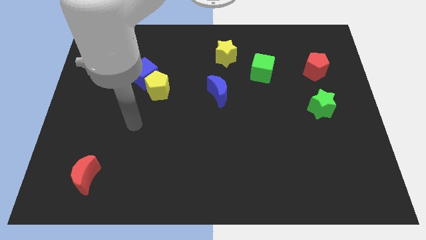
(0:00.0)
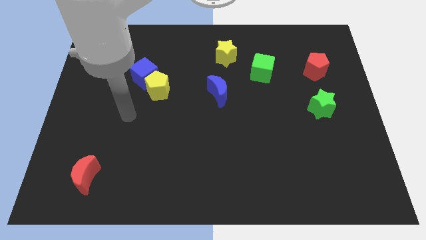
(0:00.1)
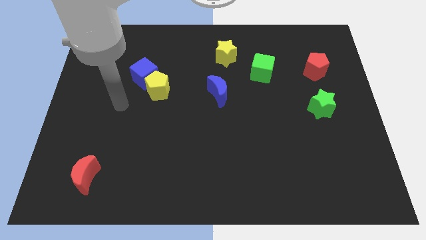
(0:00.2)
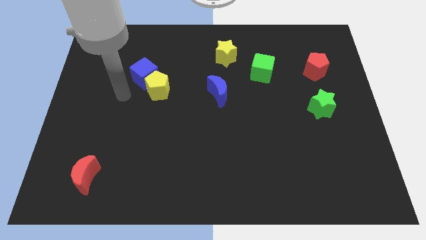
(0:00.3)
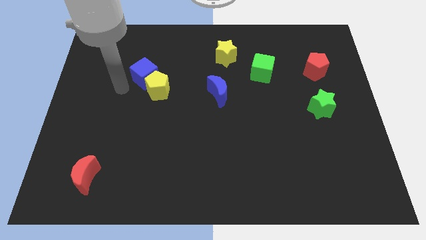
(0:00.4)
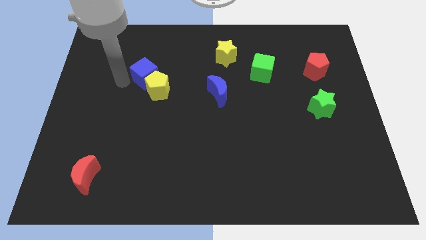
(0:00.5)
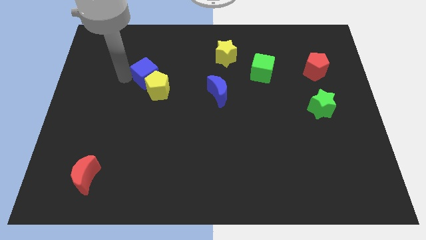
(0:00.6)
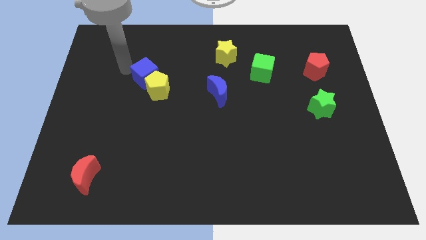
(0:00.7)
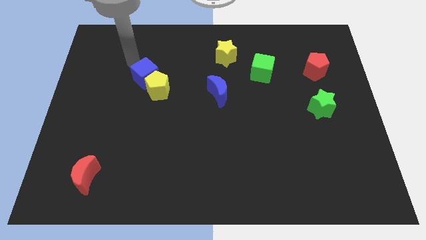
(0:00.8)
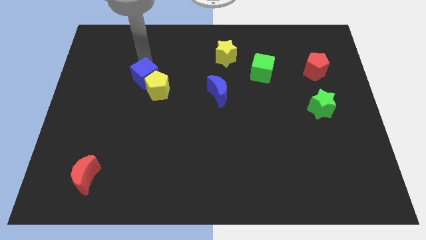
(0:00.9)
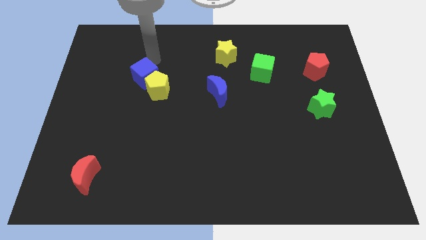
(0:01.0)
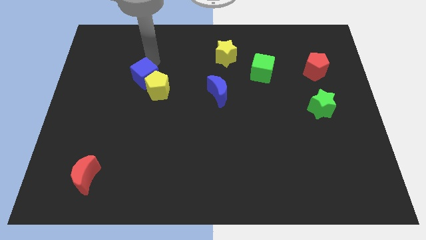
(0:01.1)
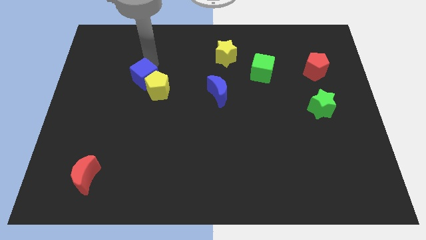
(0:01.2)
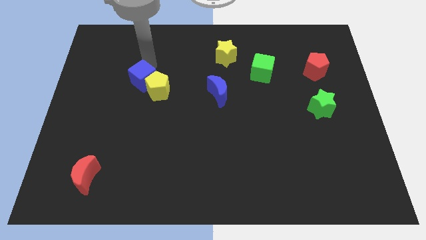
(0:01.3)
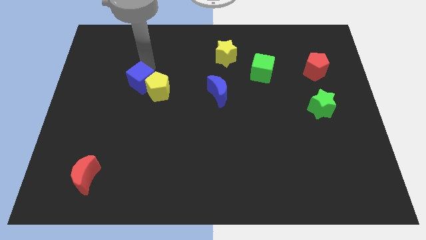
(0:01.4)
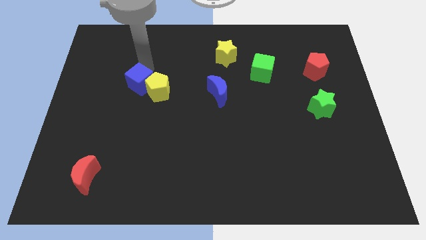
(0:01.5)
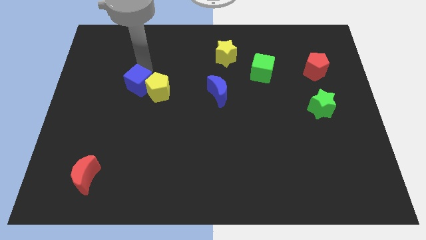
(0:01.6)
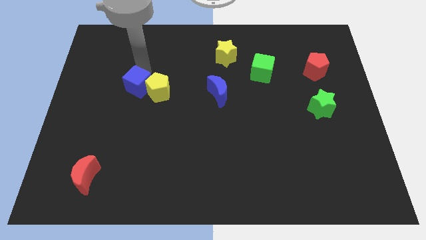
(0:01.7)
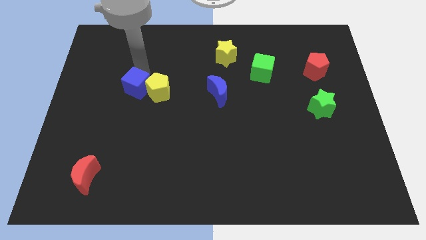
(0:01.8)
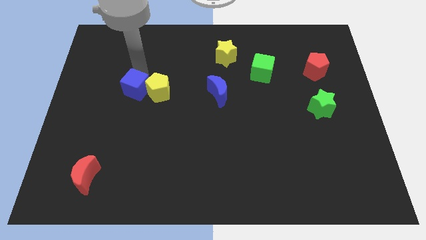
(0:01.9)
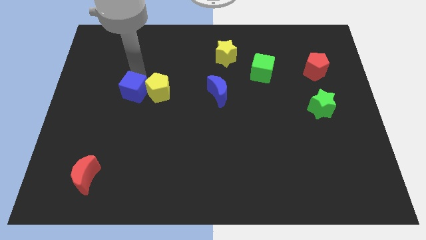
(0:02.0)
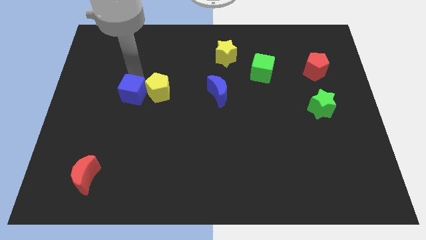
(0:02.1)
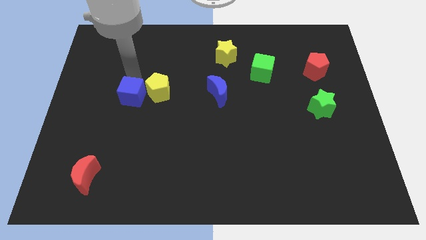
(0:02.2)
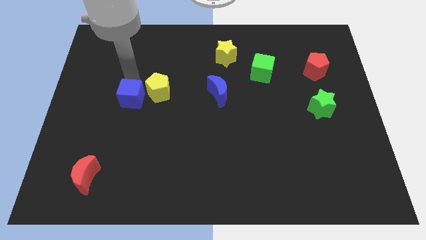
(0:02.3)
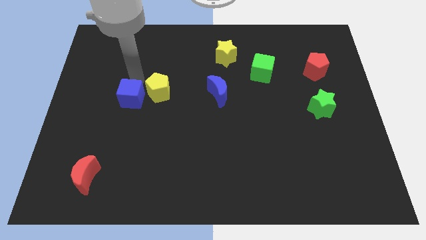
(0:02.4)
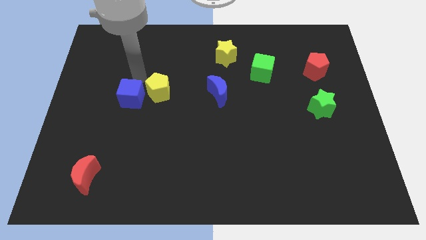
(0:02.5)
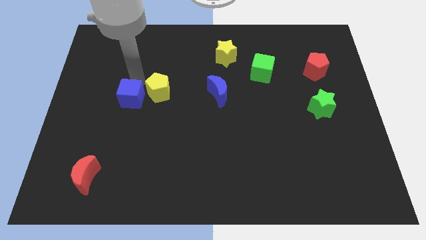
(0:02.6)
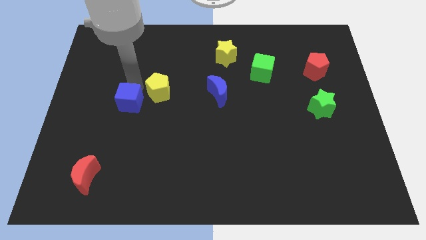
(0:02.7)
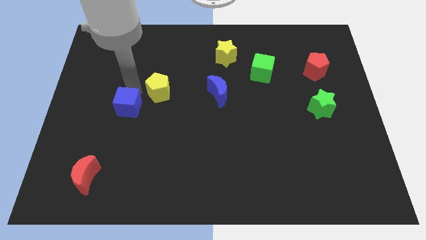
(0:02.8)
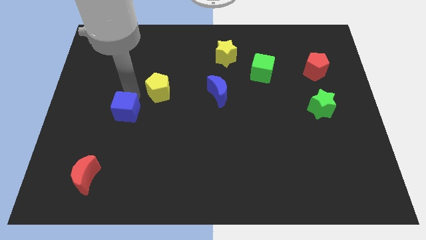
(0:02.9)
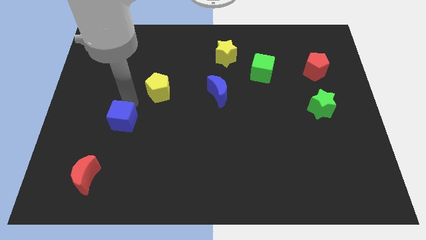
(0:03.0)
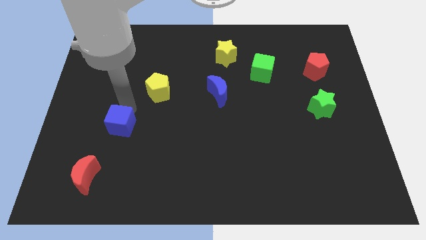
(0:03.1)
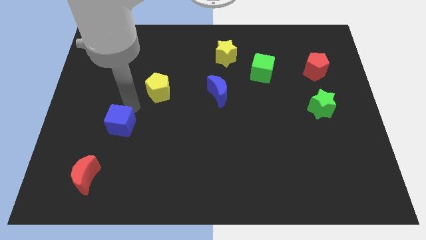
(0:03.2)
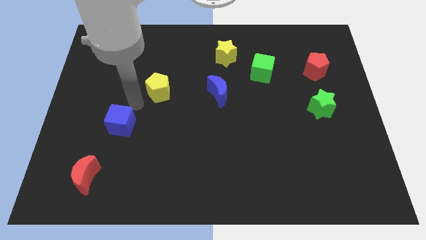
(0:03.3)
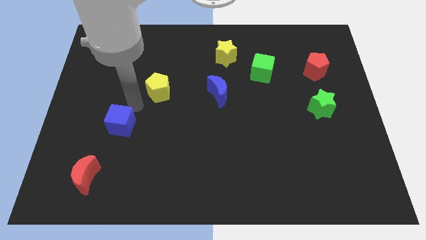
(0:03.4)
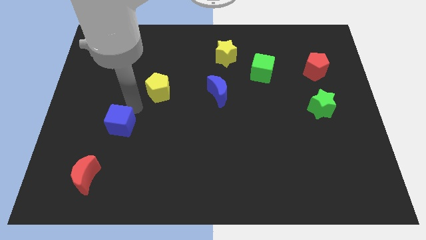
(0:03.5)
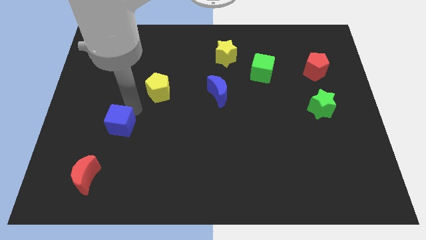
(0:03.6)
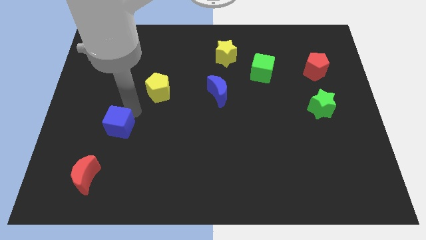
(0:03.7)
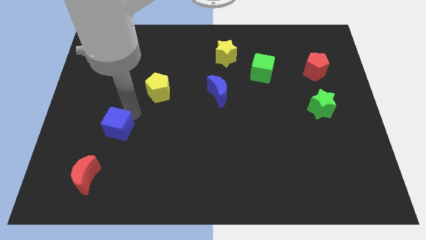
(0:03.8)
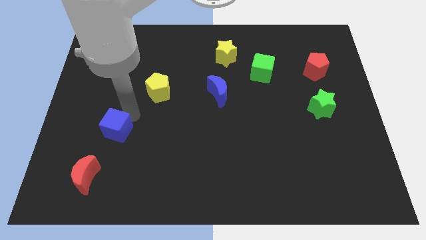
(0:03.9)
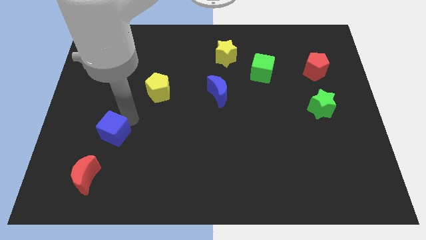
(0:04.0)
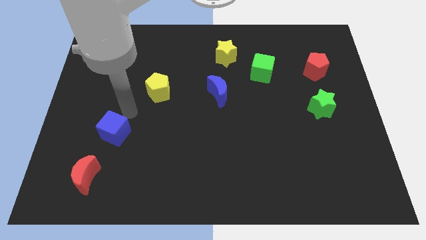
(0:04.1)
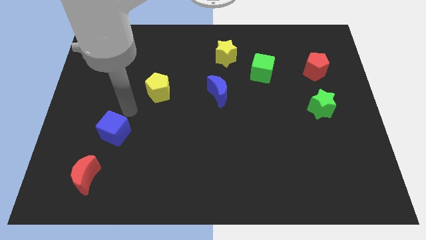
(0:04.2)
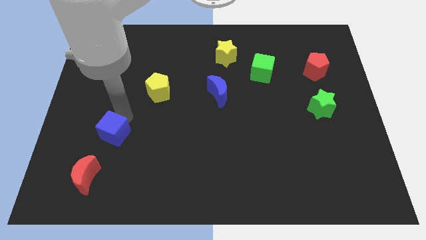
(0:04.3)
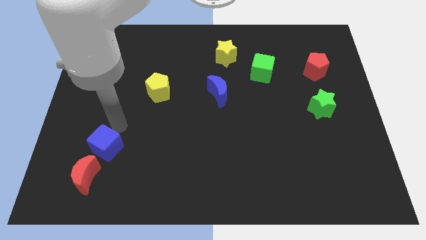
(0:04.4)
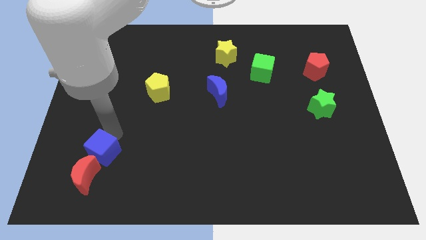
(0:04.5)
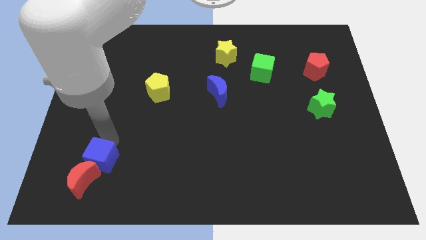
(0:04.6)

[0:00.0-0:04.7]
slide the blue cube to the red moon

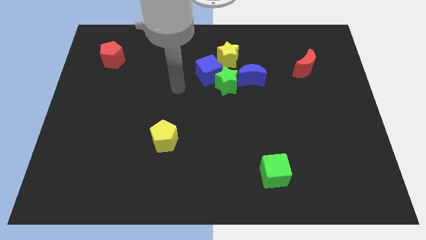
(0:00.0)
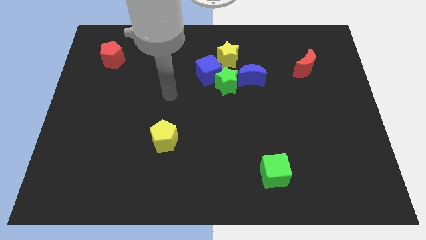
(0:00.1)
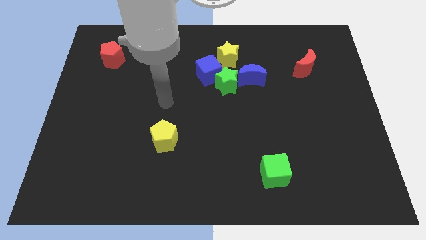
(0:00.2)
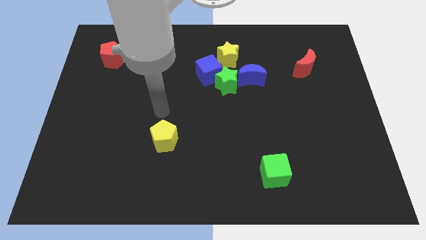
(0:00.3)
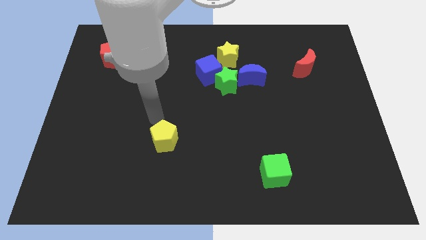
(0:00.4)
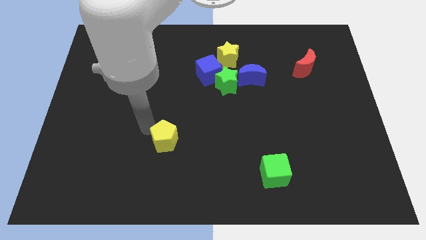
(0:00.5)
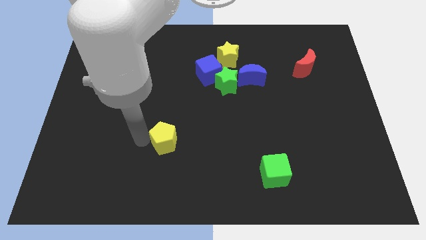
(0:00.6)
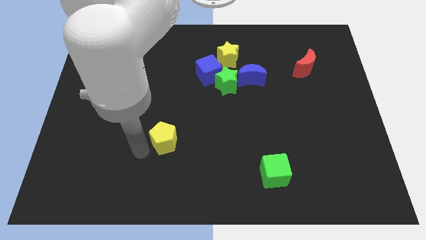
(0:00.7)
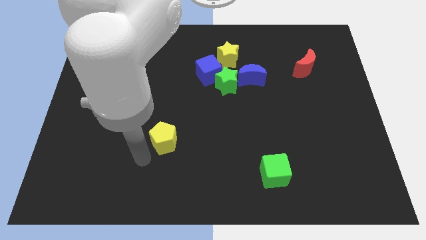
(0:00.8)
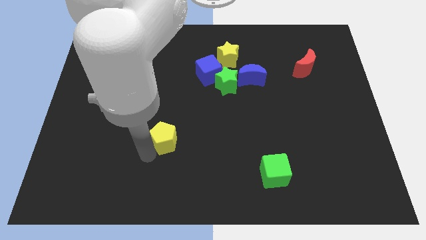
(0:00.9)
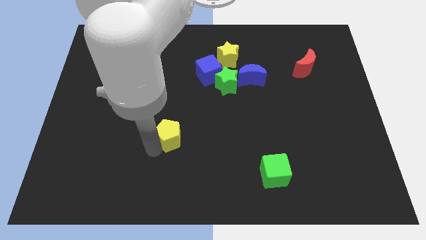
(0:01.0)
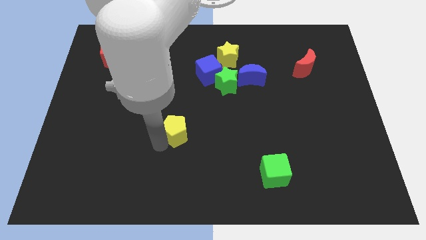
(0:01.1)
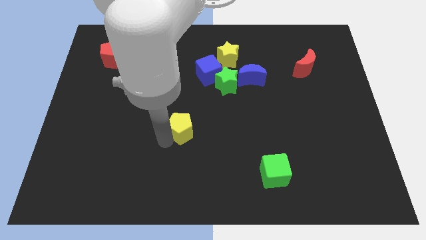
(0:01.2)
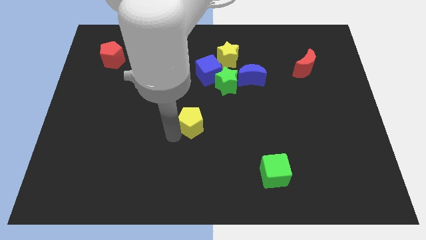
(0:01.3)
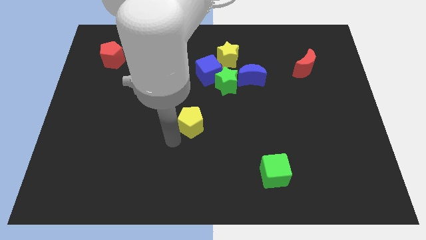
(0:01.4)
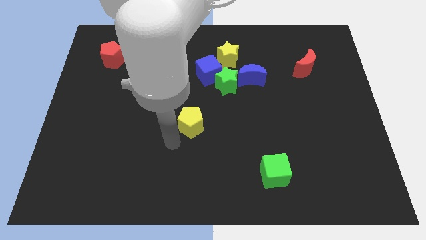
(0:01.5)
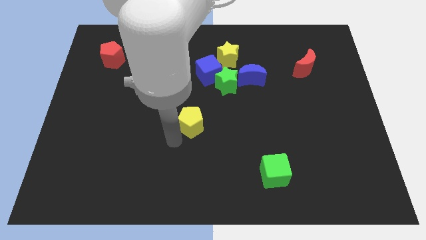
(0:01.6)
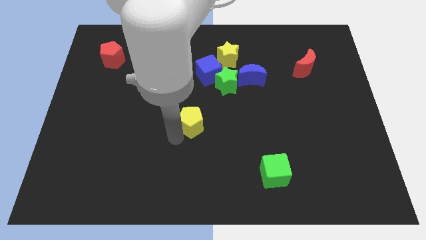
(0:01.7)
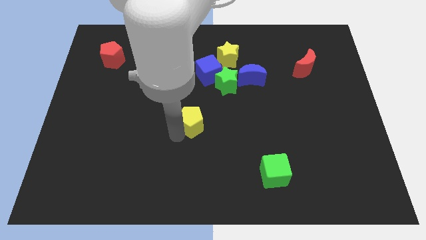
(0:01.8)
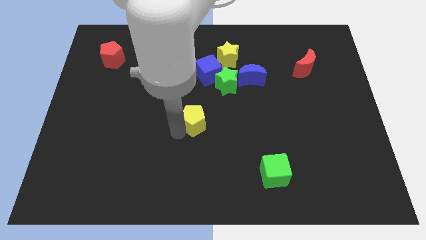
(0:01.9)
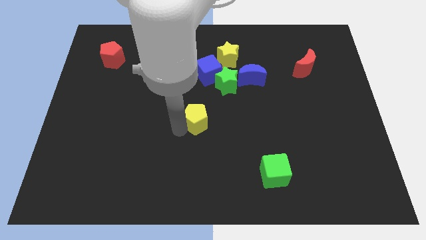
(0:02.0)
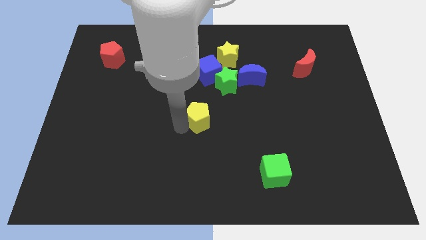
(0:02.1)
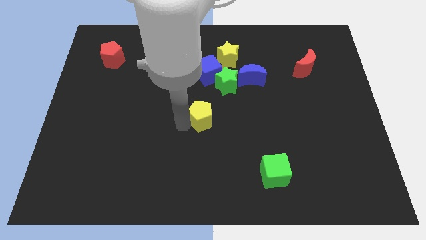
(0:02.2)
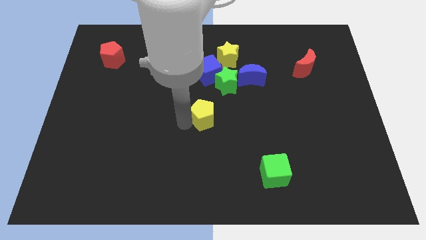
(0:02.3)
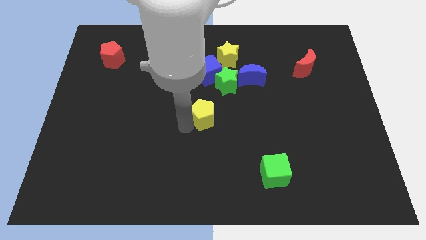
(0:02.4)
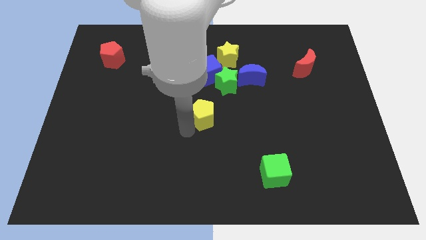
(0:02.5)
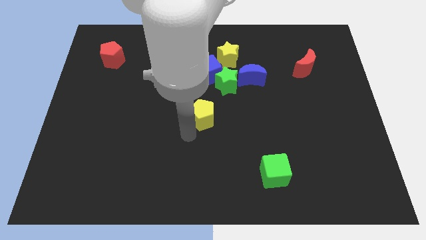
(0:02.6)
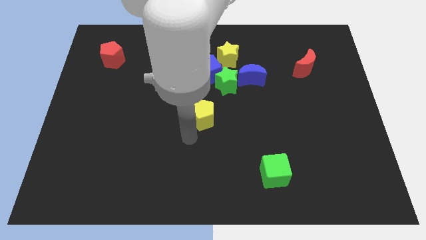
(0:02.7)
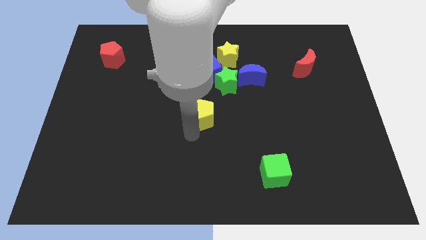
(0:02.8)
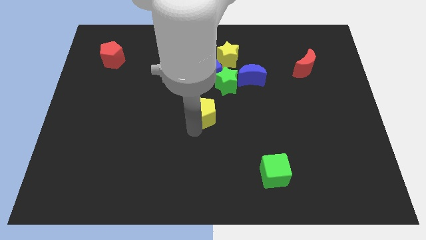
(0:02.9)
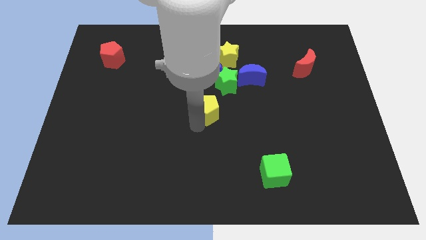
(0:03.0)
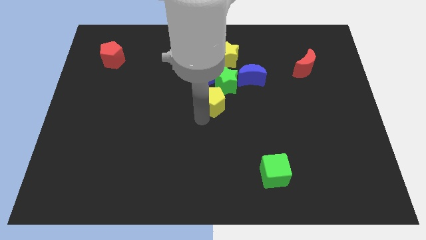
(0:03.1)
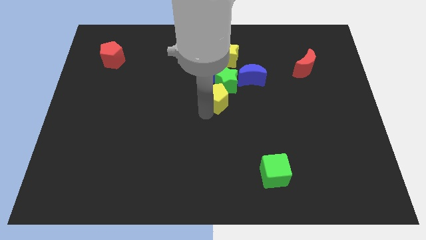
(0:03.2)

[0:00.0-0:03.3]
move the yellow pentagon towards the green star

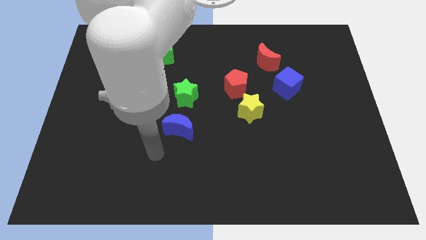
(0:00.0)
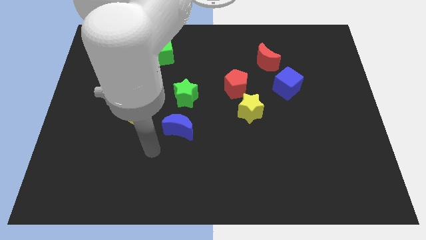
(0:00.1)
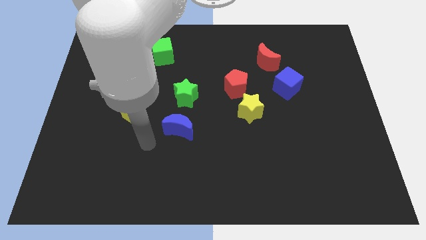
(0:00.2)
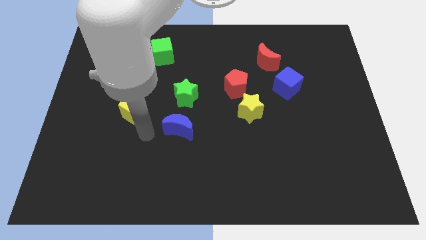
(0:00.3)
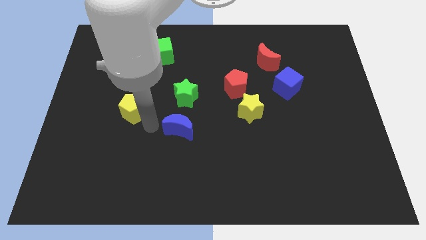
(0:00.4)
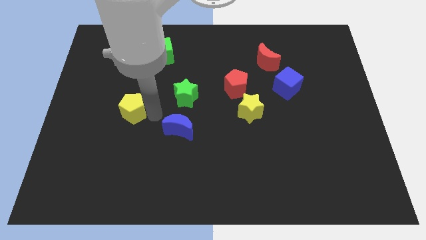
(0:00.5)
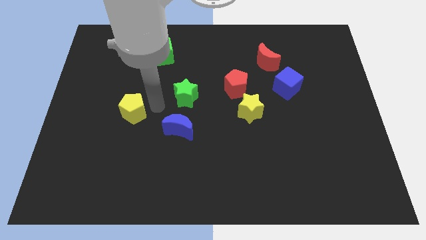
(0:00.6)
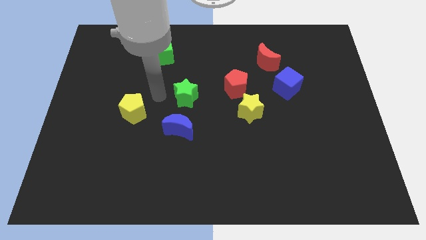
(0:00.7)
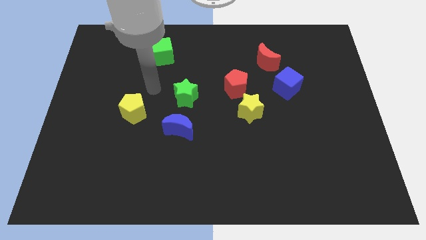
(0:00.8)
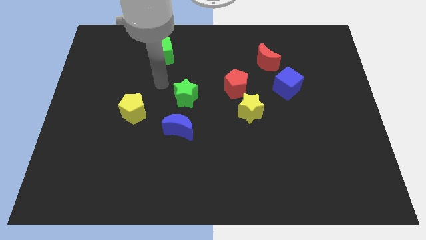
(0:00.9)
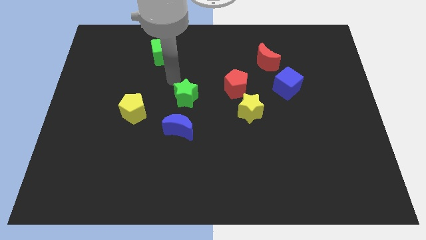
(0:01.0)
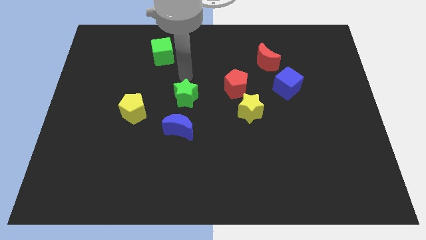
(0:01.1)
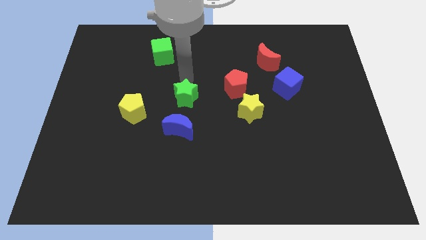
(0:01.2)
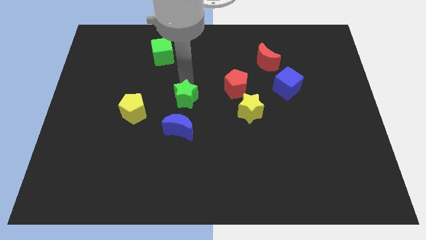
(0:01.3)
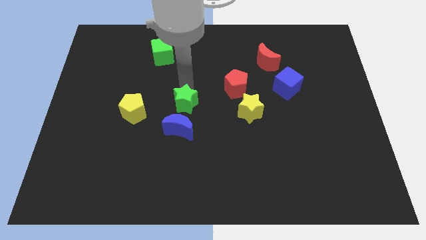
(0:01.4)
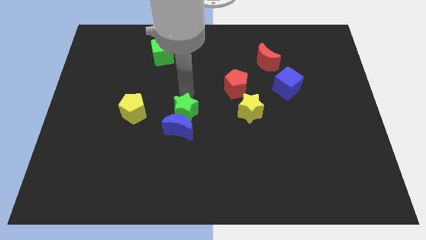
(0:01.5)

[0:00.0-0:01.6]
push the green star towards the blue moon
